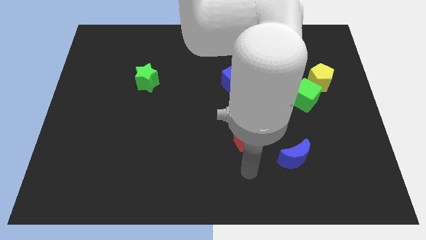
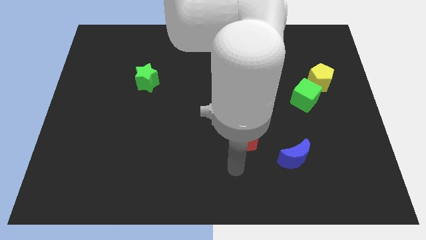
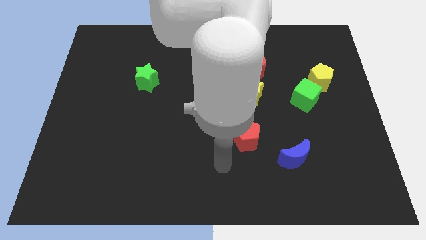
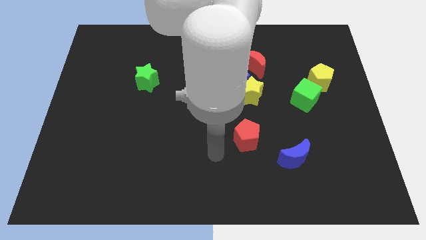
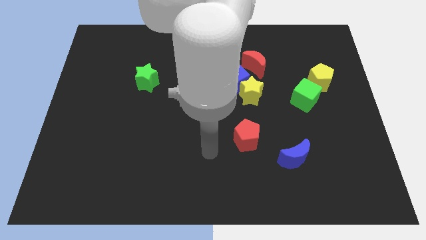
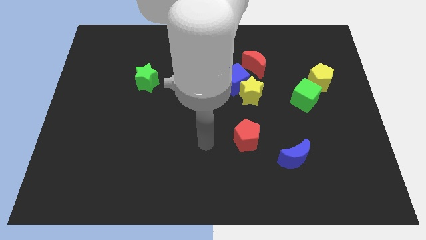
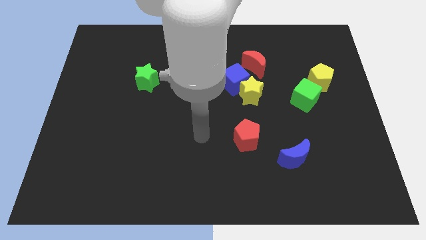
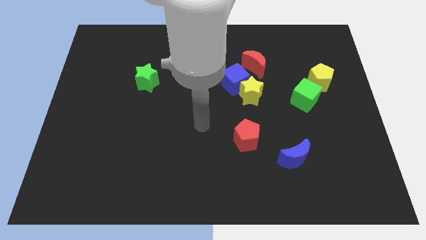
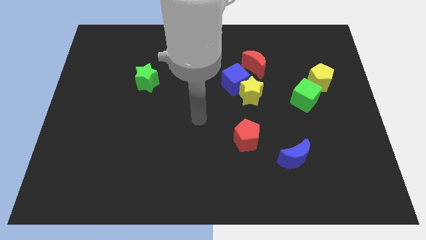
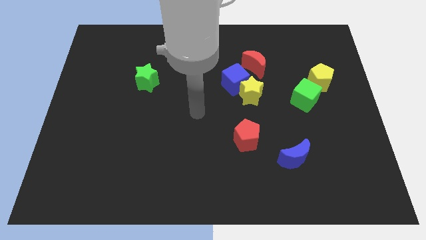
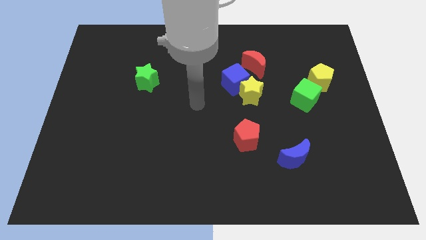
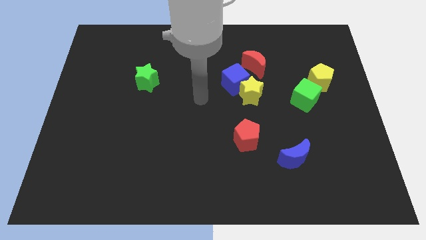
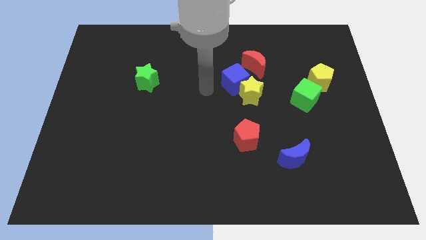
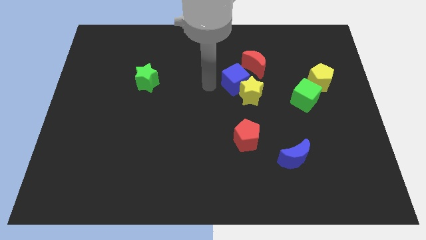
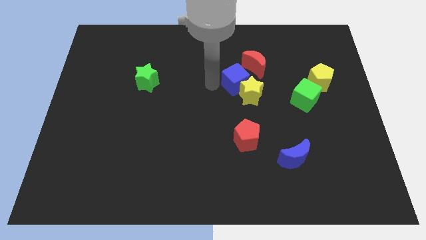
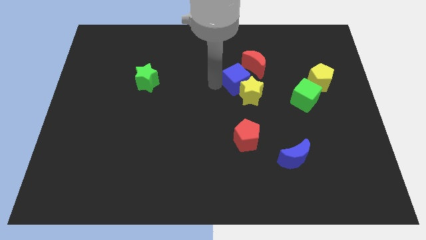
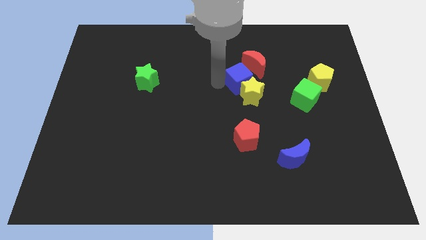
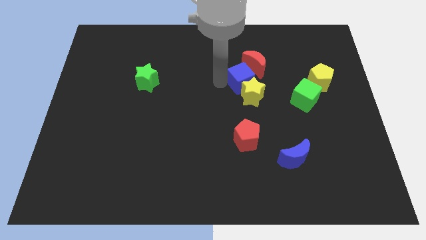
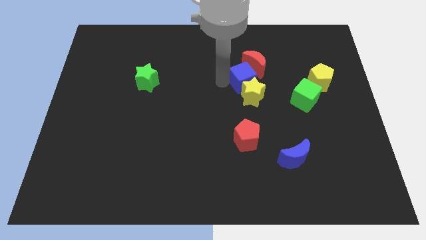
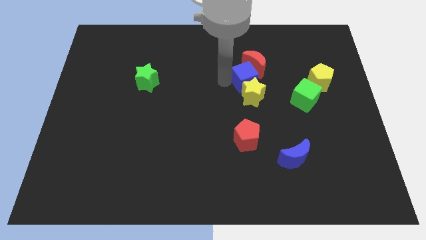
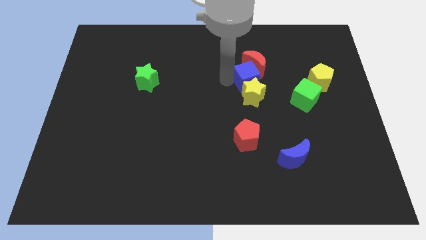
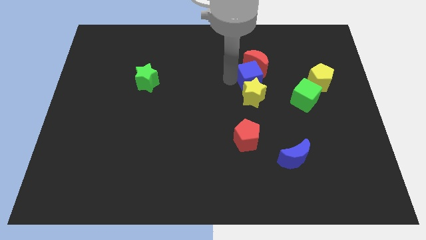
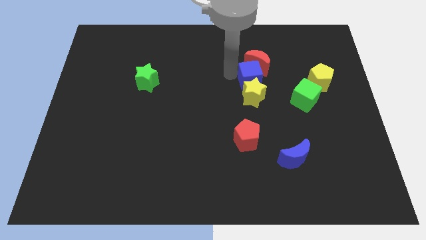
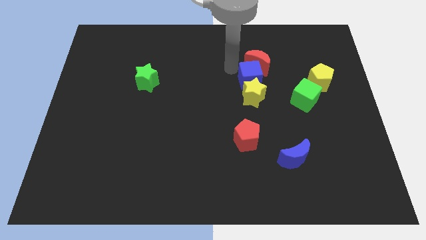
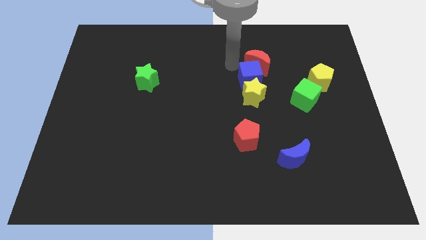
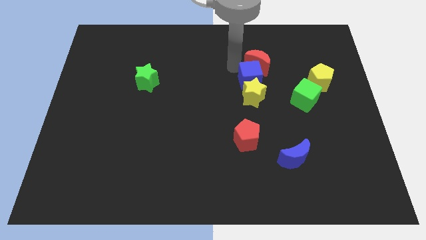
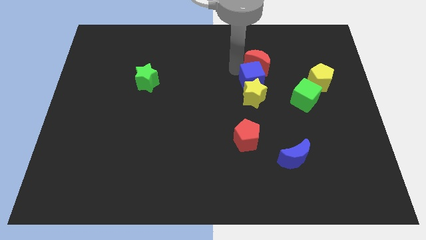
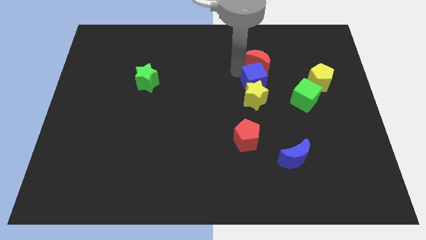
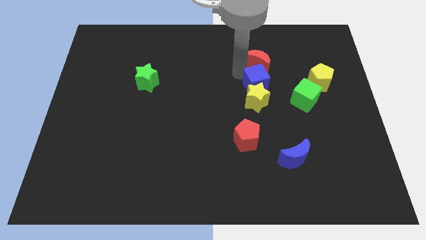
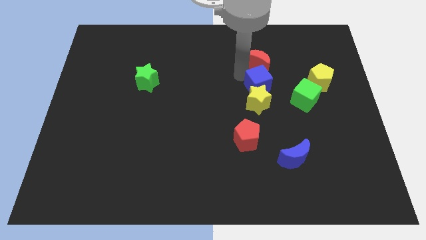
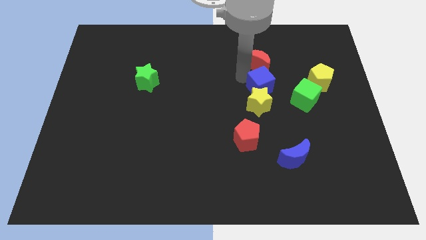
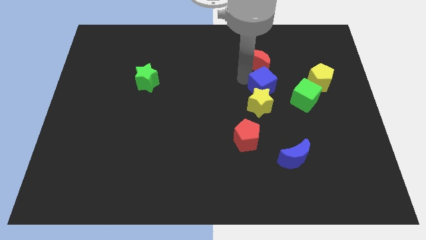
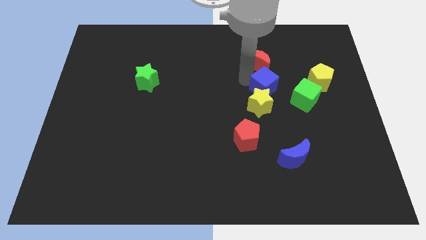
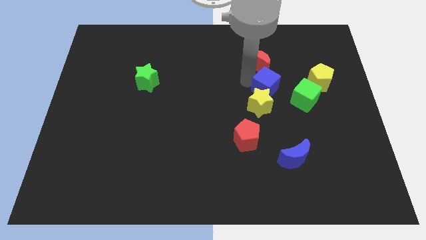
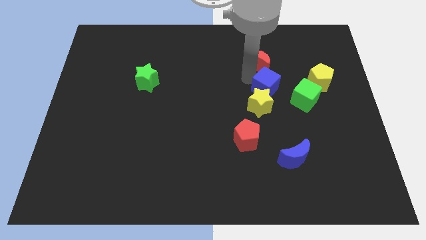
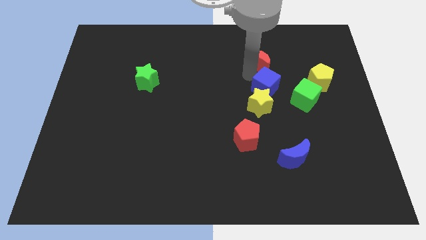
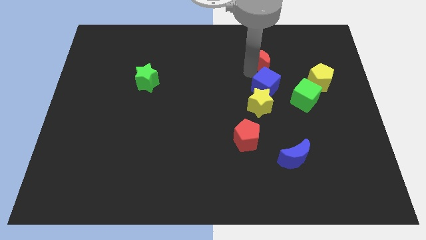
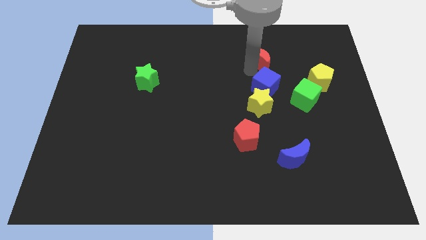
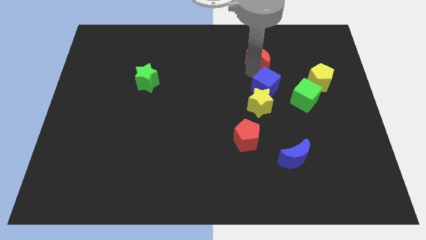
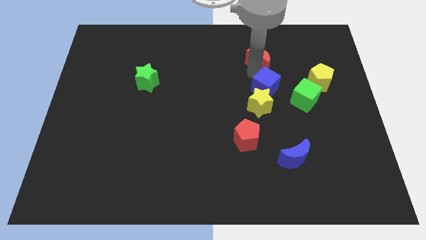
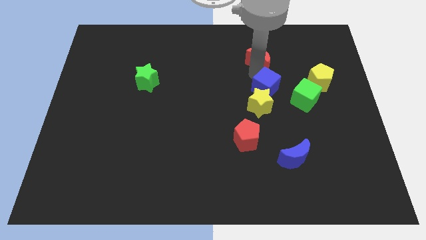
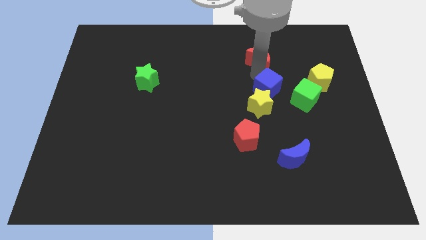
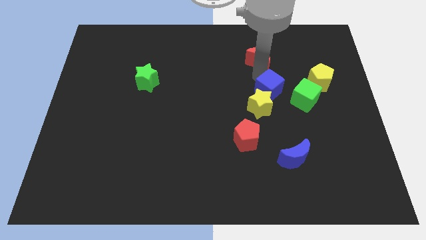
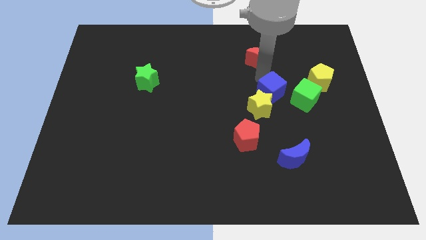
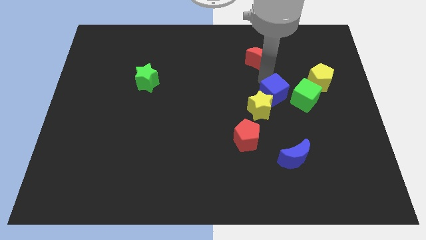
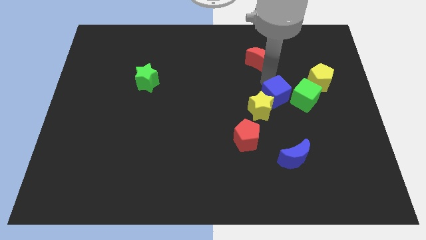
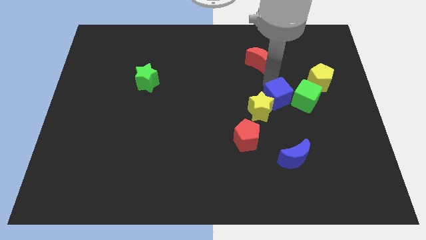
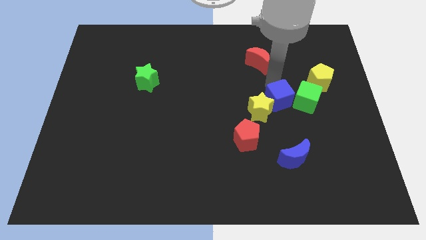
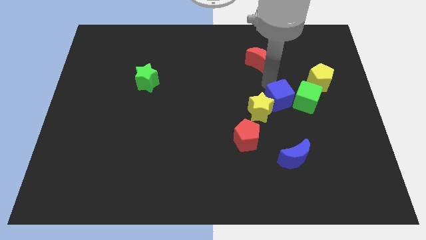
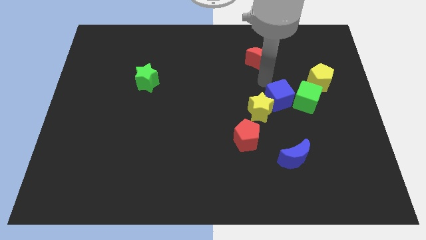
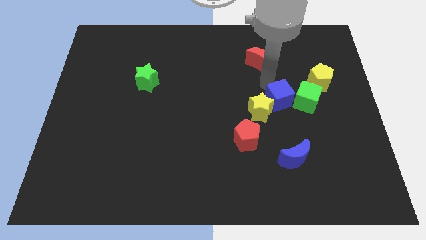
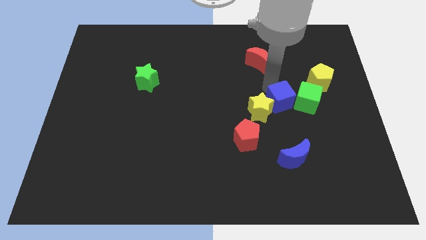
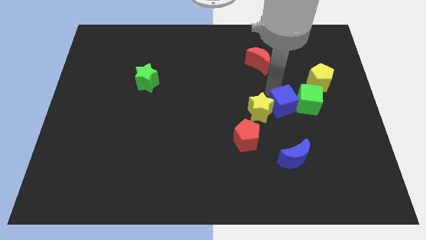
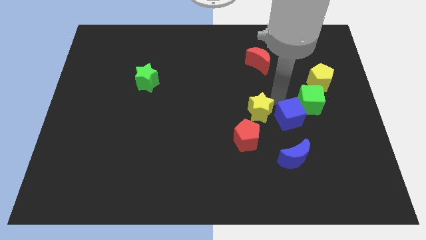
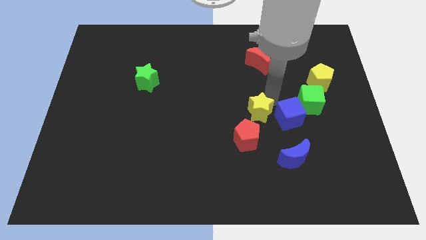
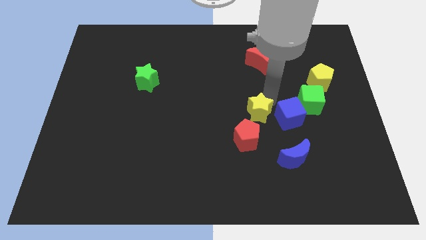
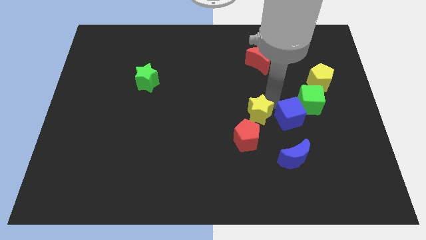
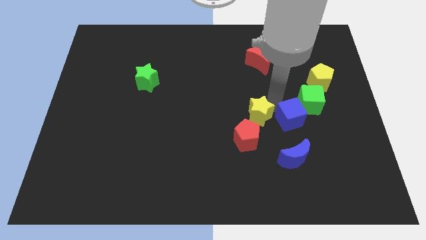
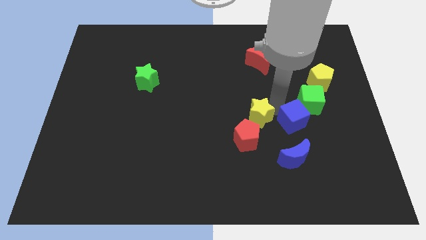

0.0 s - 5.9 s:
move the blue cube to the bottom of the green cube

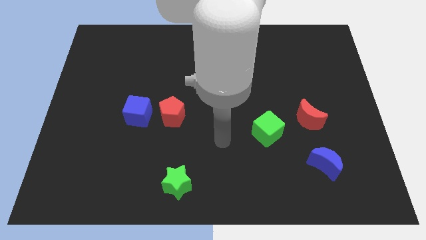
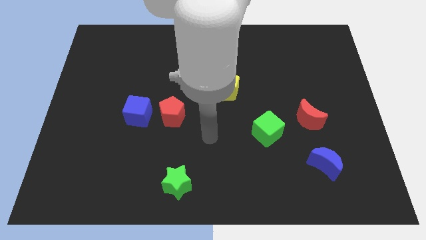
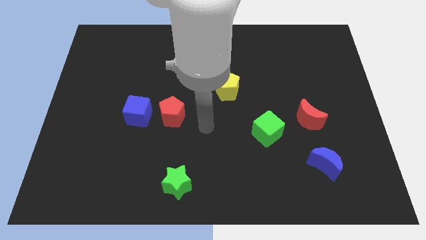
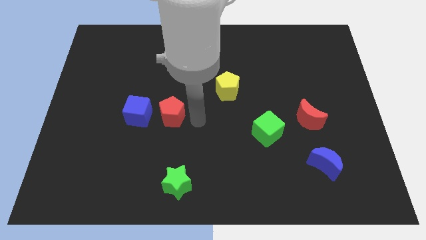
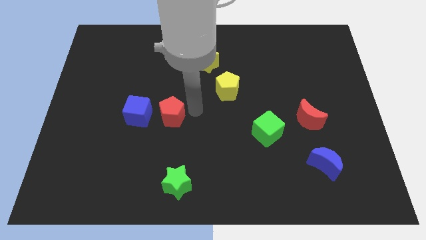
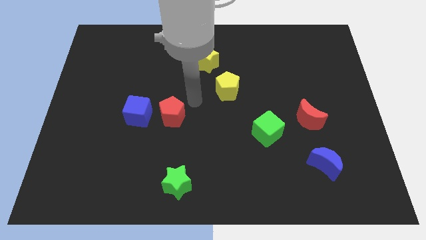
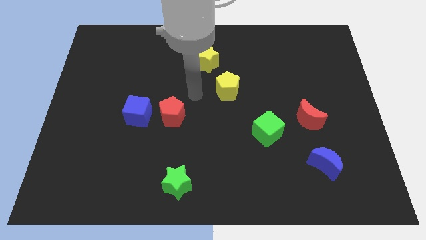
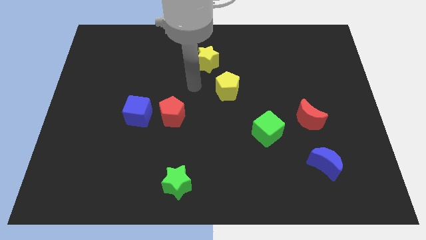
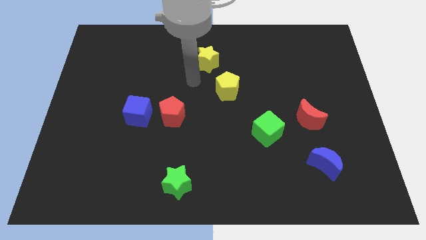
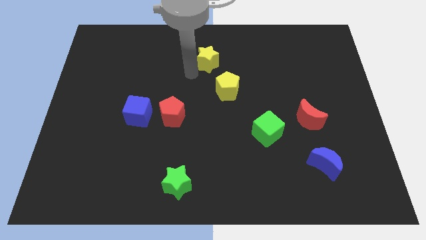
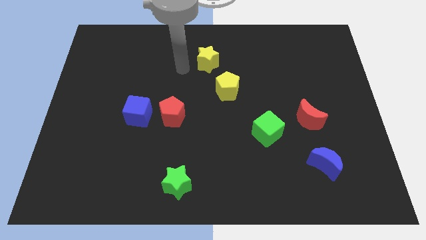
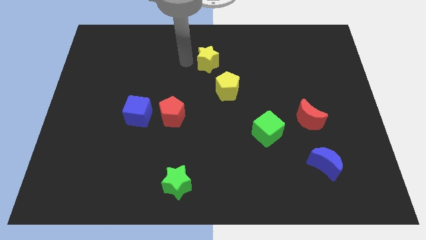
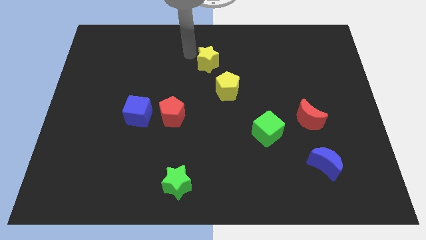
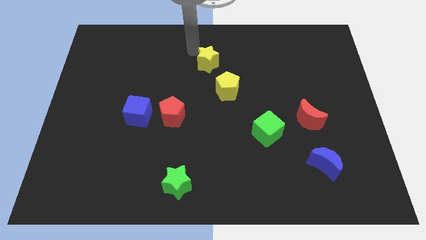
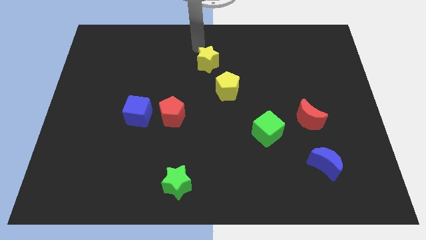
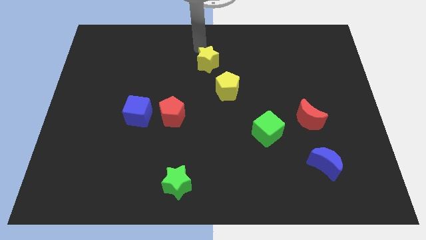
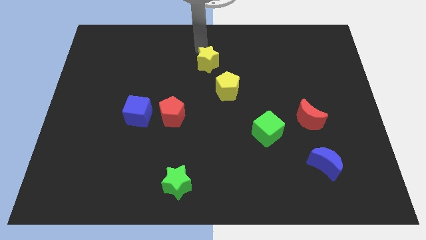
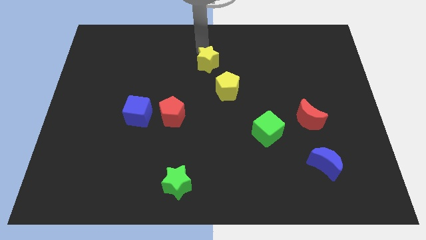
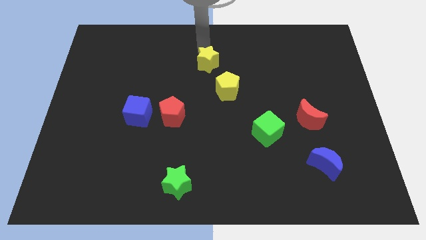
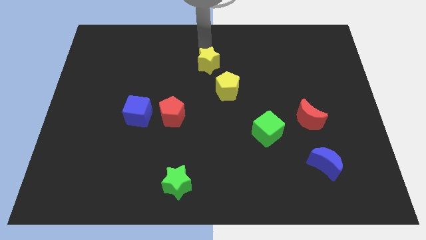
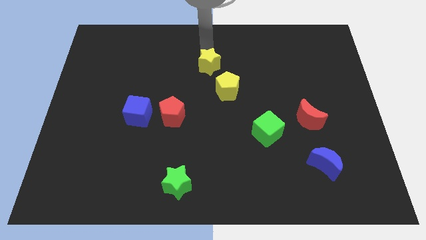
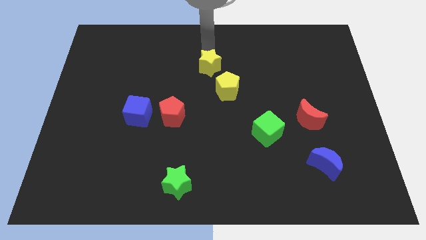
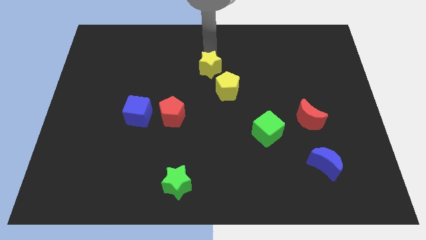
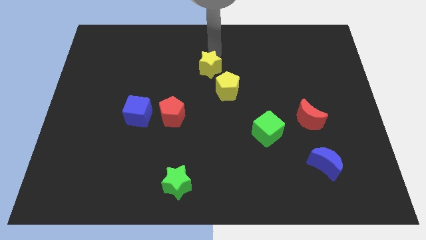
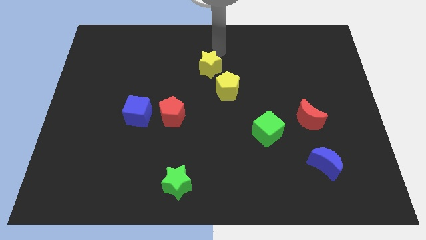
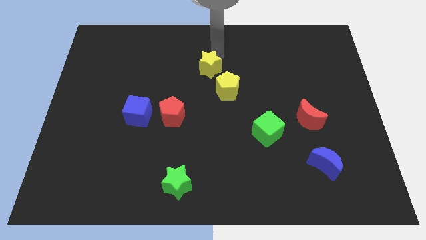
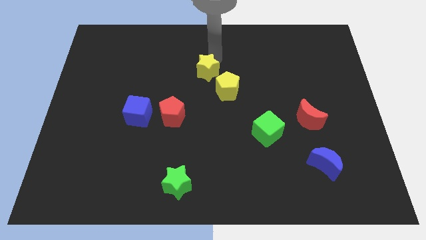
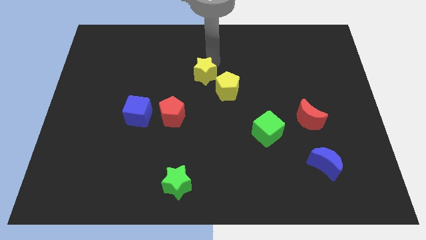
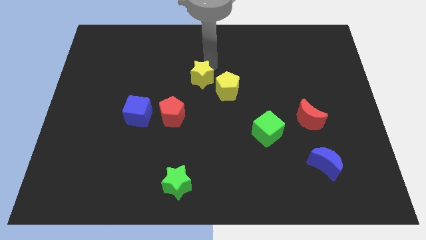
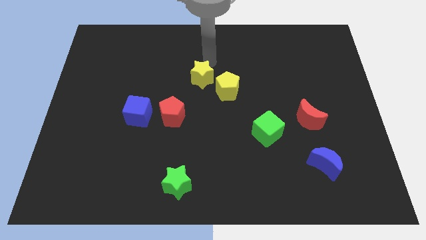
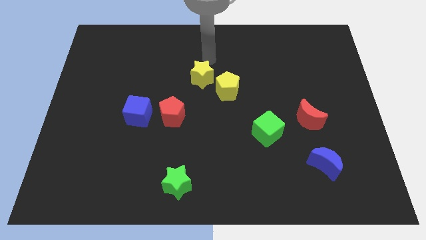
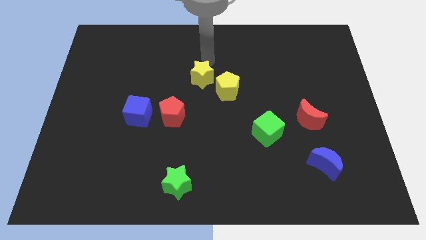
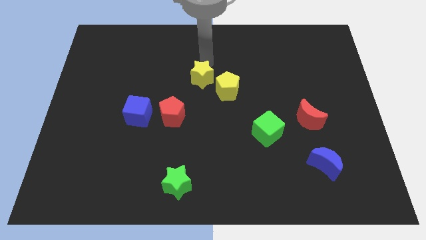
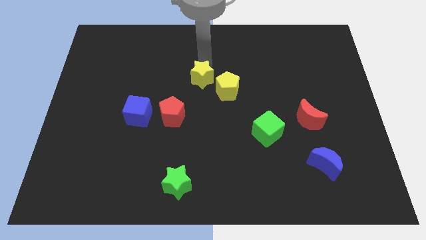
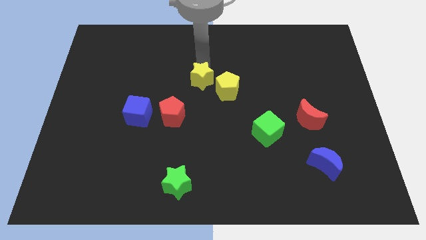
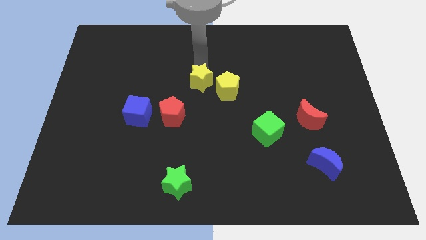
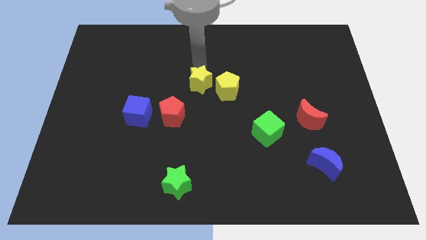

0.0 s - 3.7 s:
push the yellow star to the top right side of the red pentagon
